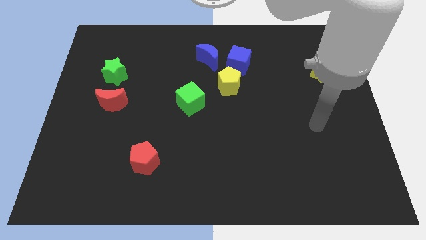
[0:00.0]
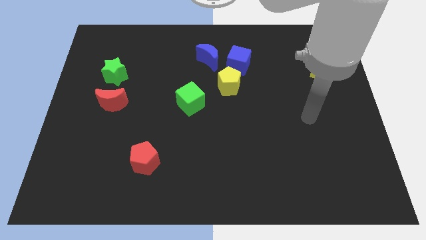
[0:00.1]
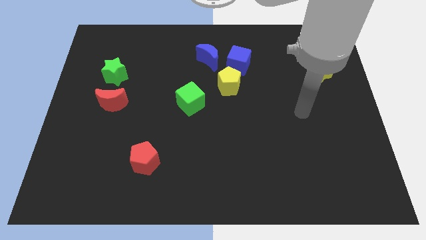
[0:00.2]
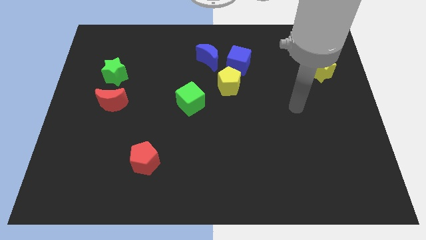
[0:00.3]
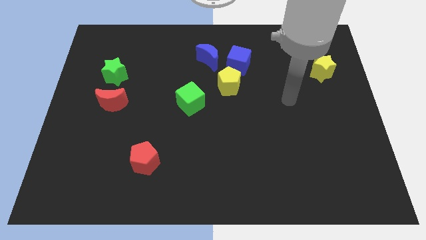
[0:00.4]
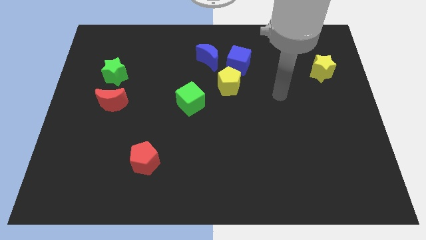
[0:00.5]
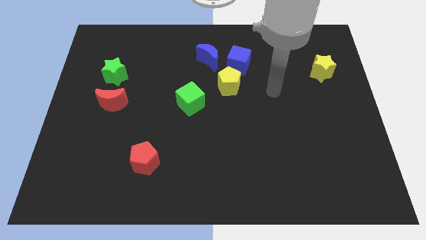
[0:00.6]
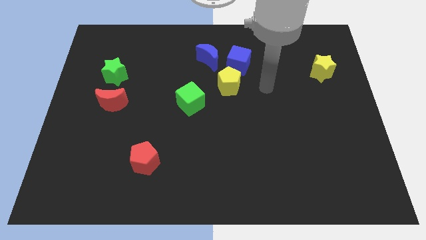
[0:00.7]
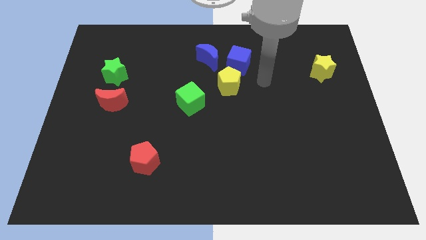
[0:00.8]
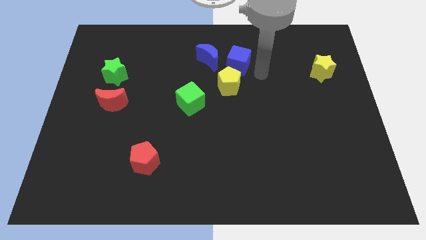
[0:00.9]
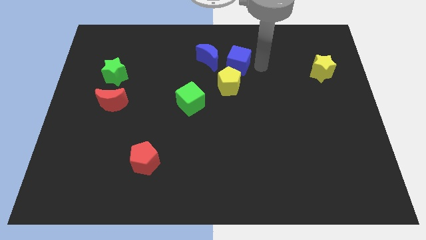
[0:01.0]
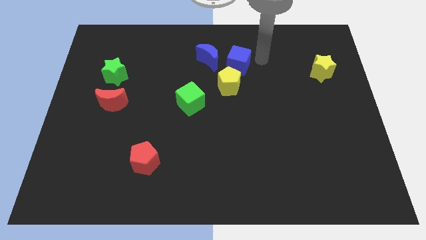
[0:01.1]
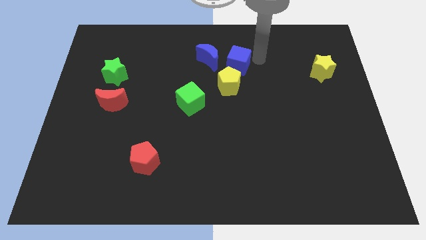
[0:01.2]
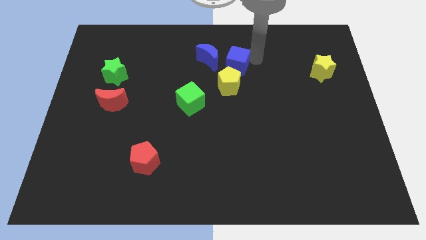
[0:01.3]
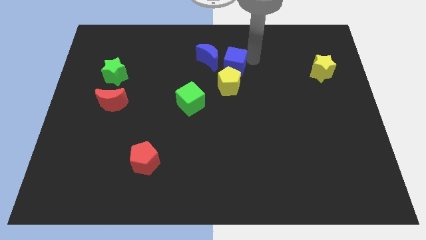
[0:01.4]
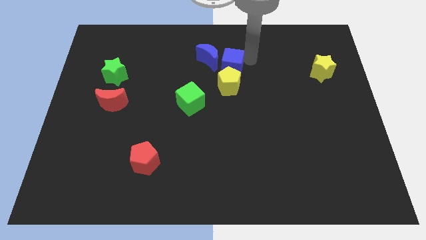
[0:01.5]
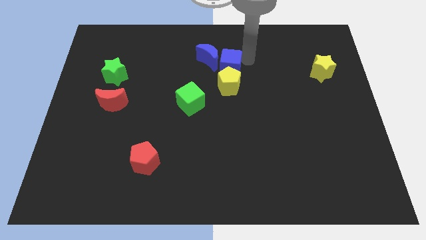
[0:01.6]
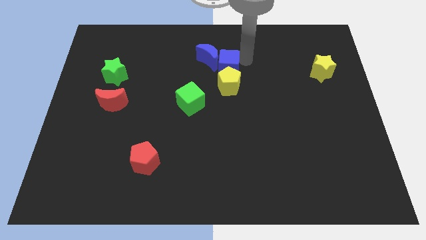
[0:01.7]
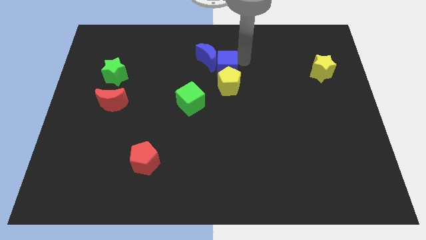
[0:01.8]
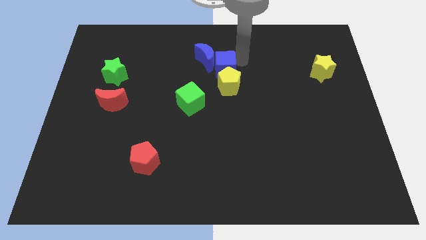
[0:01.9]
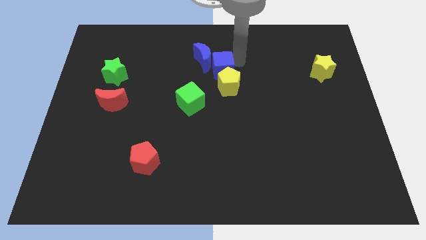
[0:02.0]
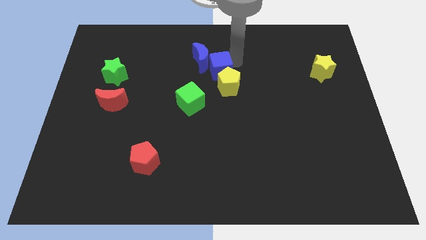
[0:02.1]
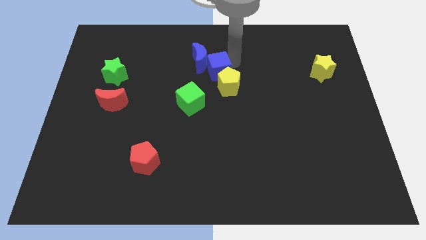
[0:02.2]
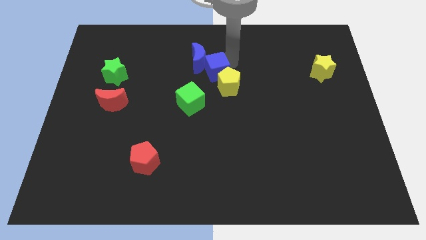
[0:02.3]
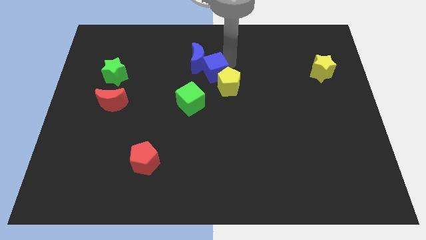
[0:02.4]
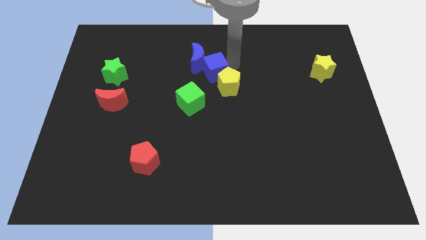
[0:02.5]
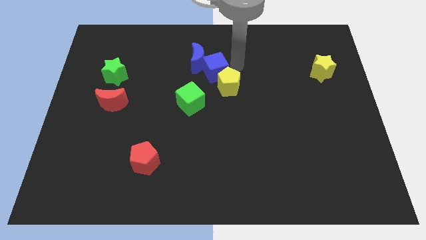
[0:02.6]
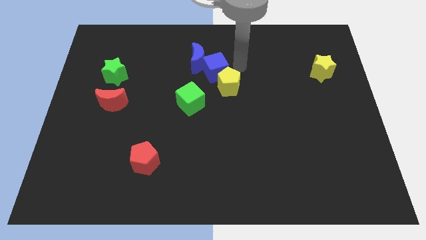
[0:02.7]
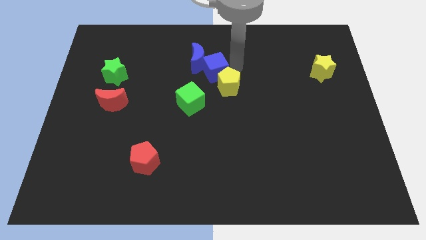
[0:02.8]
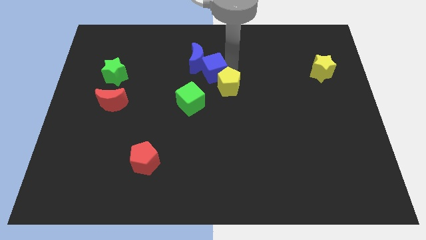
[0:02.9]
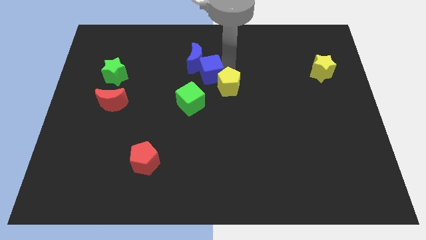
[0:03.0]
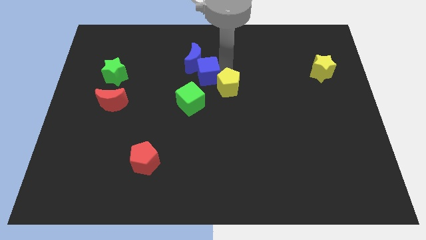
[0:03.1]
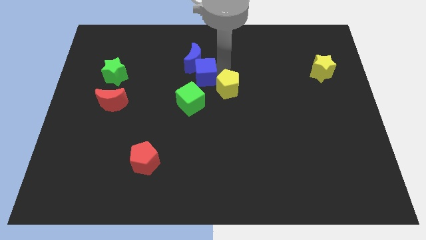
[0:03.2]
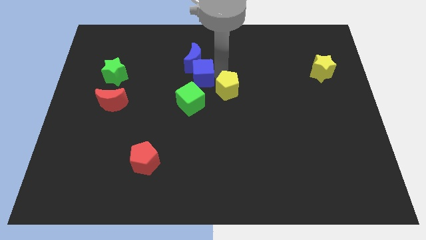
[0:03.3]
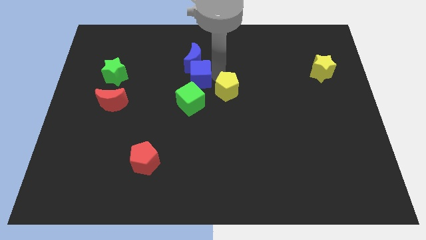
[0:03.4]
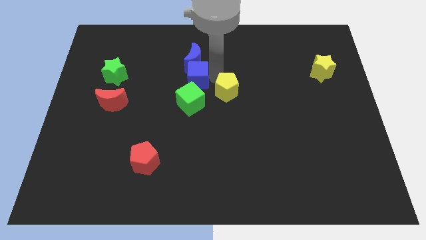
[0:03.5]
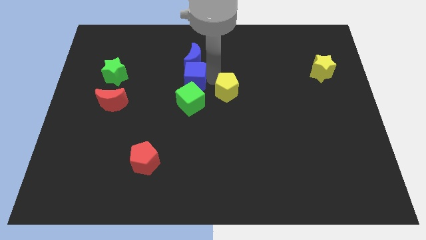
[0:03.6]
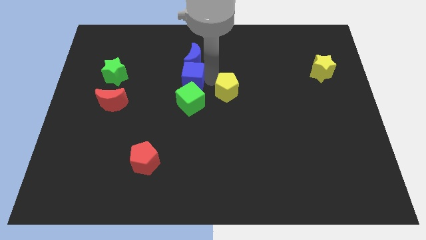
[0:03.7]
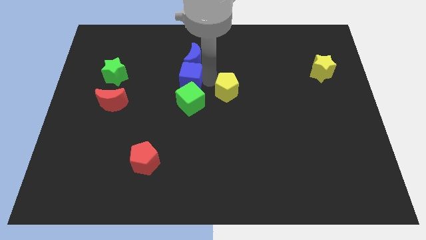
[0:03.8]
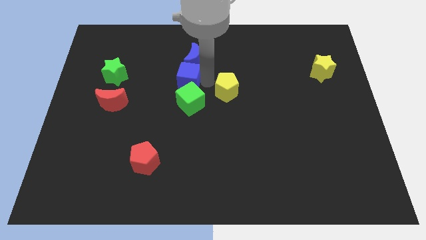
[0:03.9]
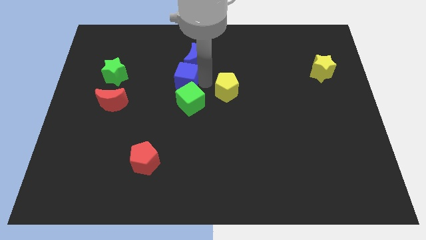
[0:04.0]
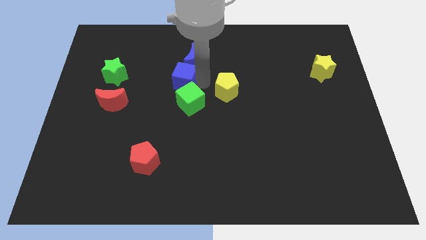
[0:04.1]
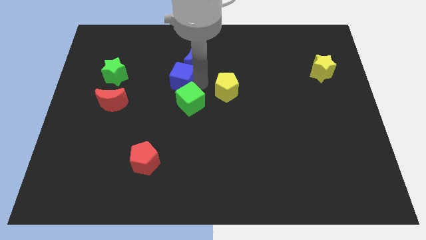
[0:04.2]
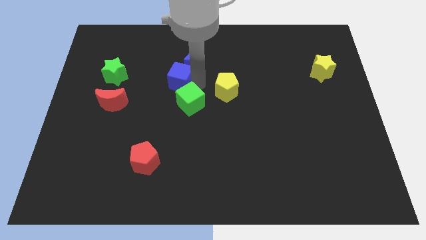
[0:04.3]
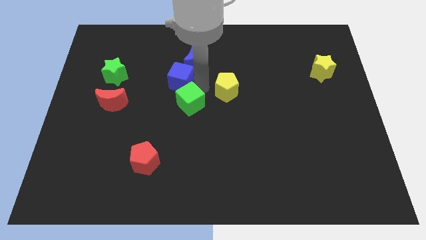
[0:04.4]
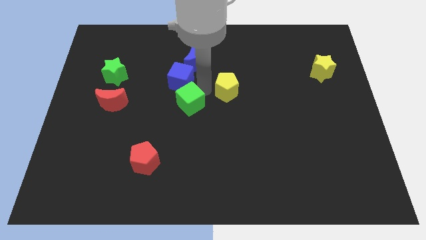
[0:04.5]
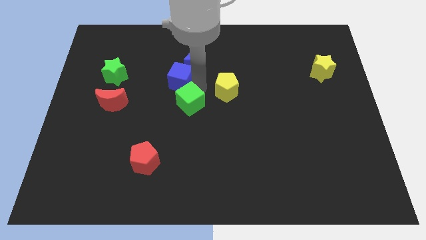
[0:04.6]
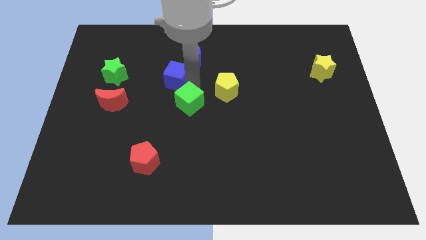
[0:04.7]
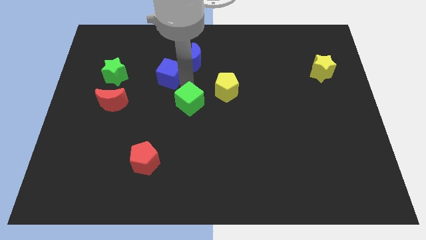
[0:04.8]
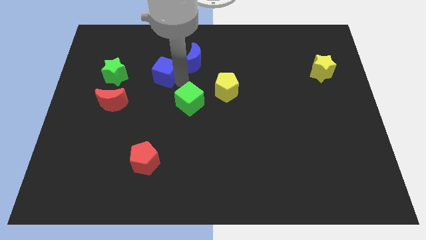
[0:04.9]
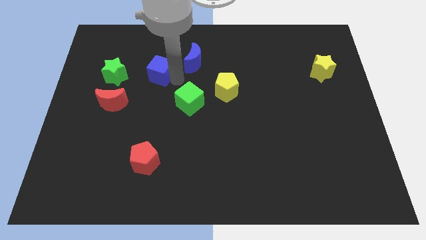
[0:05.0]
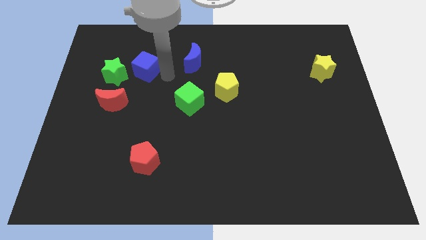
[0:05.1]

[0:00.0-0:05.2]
slide the blue cube to the left

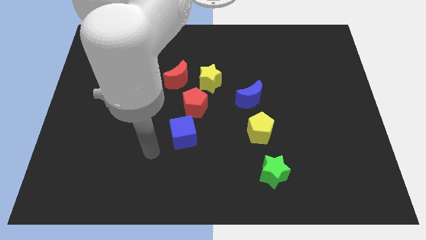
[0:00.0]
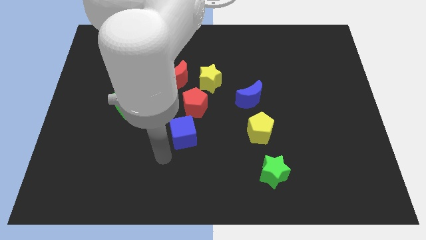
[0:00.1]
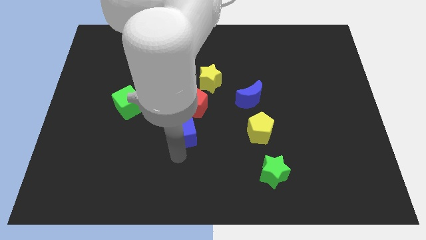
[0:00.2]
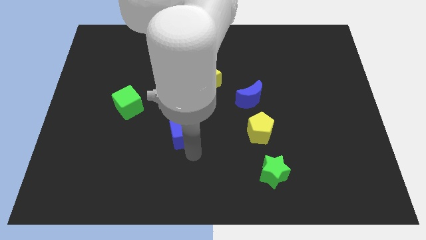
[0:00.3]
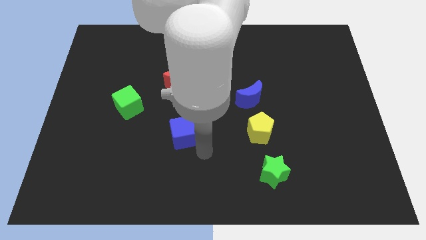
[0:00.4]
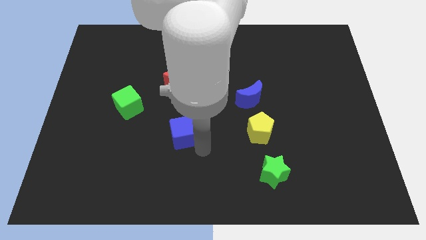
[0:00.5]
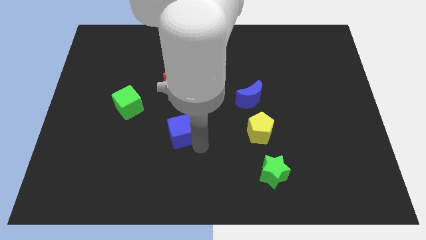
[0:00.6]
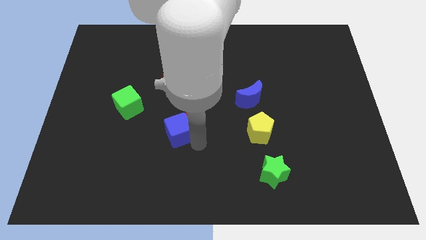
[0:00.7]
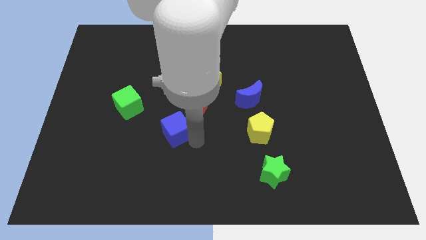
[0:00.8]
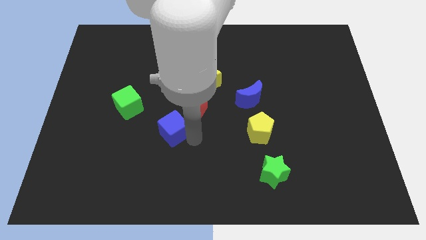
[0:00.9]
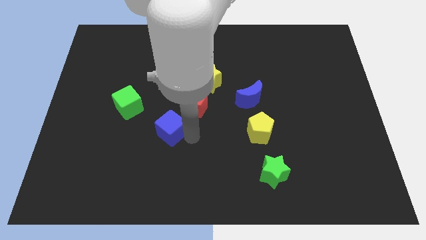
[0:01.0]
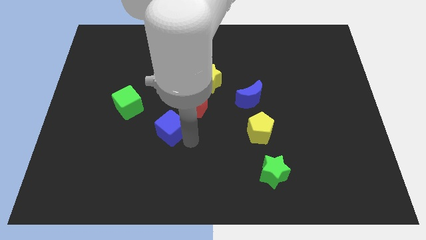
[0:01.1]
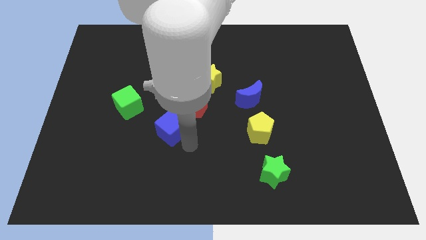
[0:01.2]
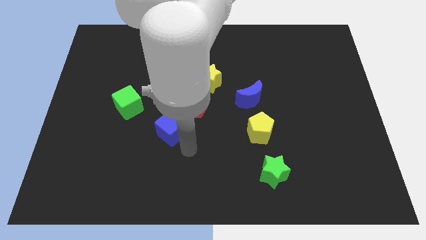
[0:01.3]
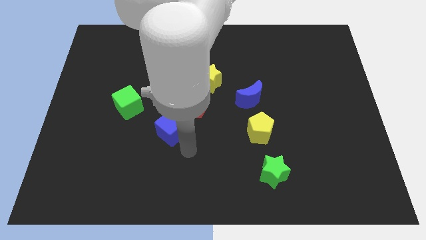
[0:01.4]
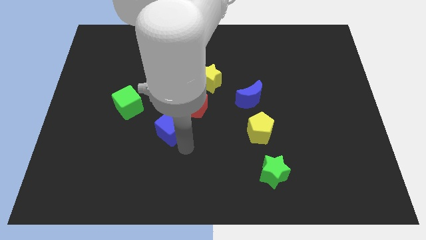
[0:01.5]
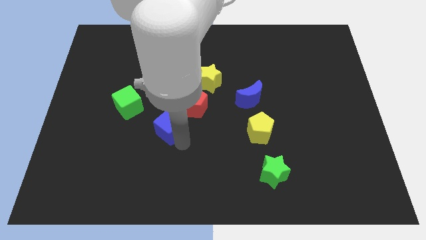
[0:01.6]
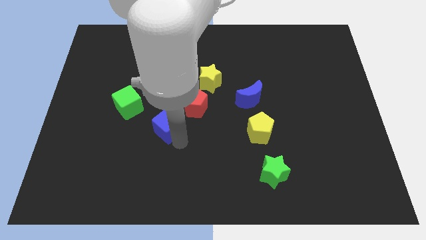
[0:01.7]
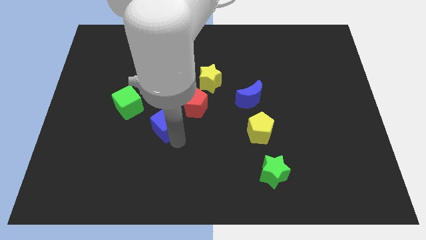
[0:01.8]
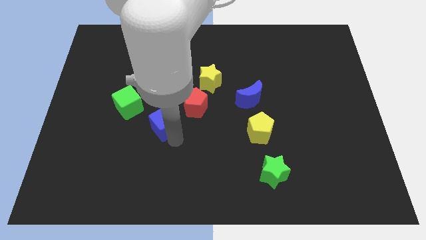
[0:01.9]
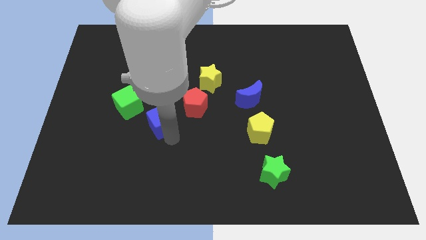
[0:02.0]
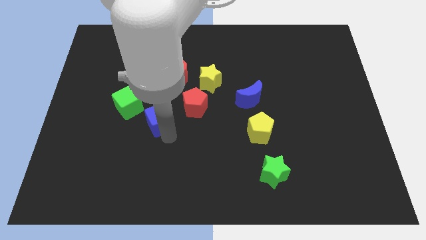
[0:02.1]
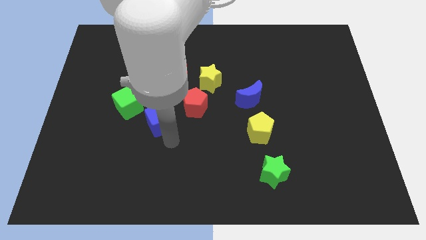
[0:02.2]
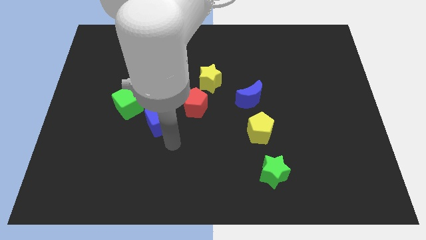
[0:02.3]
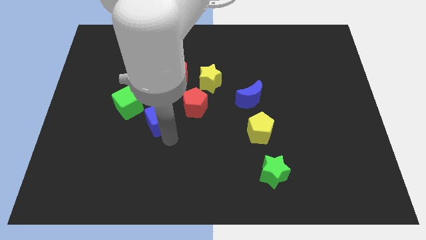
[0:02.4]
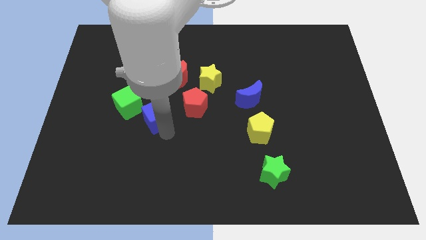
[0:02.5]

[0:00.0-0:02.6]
push the blue cube upwards and to the left diagonally a little

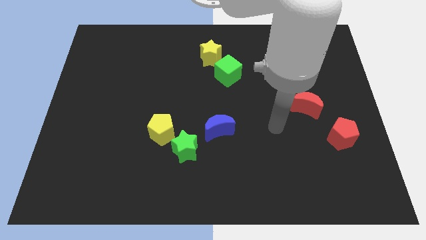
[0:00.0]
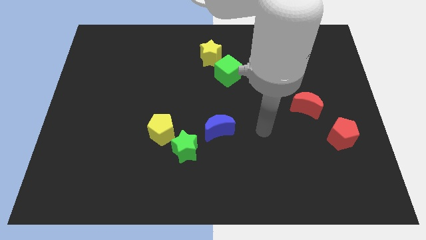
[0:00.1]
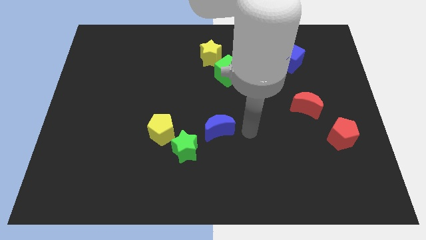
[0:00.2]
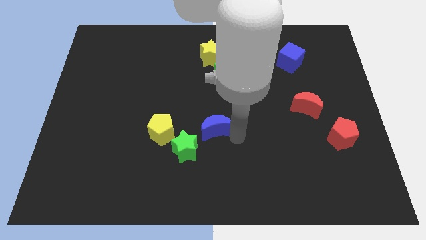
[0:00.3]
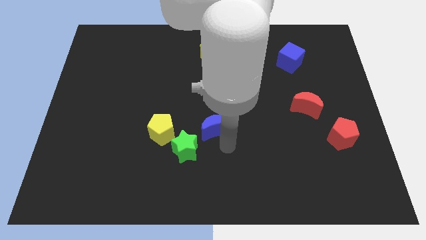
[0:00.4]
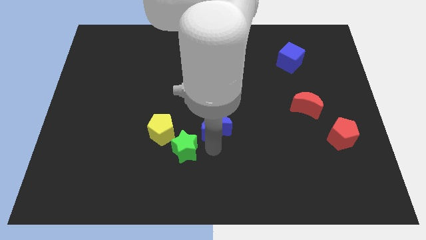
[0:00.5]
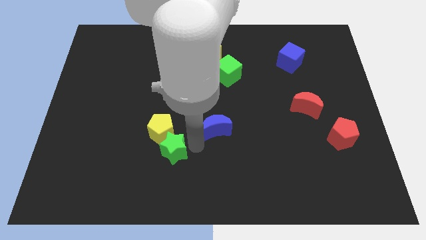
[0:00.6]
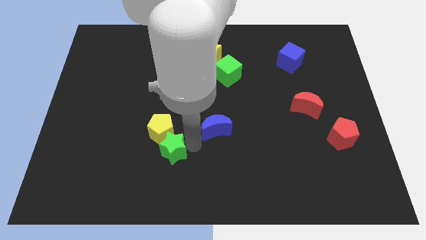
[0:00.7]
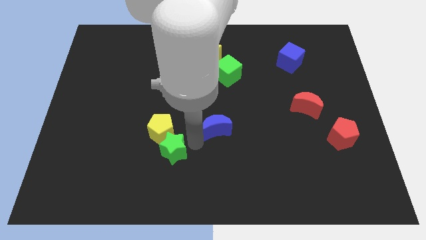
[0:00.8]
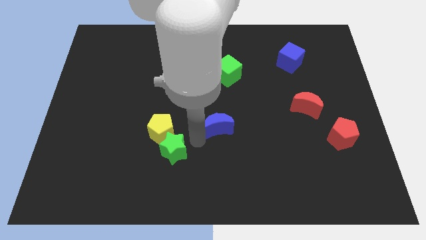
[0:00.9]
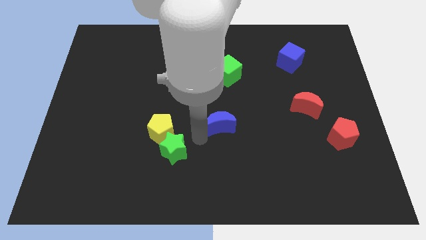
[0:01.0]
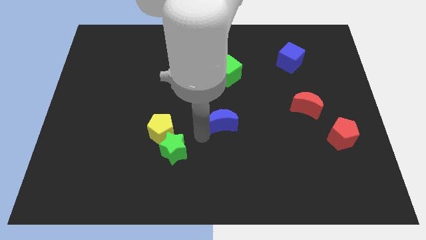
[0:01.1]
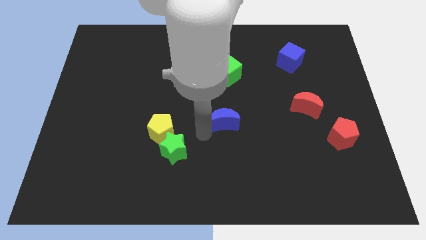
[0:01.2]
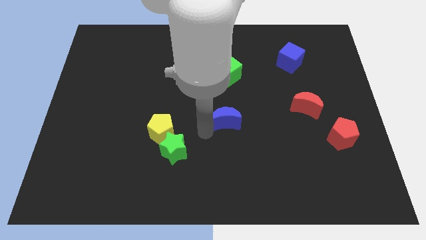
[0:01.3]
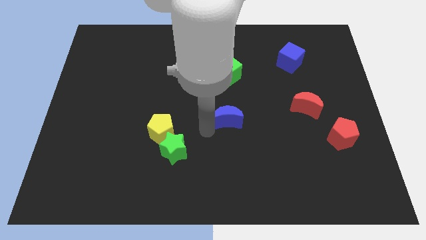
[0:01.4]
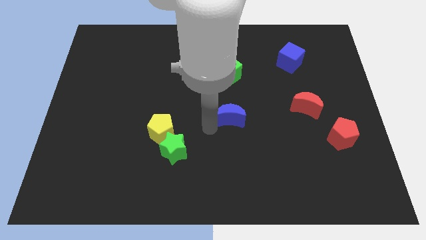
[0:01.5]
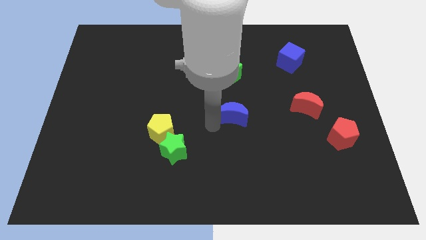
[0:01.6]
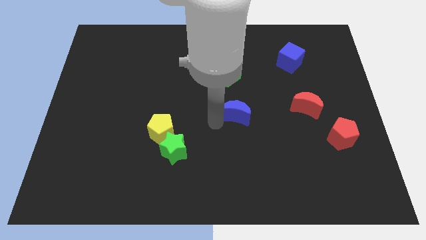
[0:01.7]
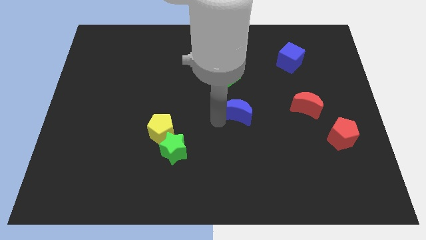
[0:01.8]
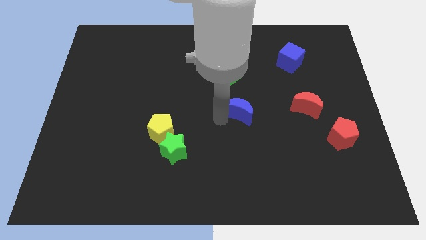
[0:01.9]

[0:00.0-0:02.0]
push the blue moon somewhat upwards and right diagonally
